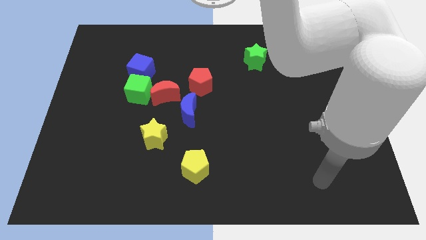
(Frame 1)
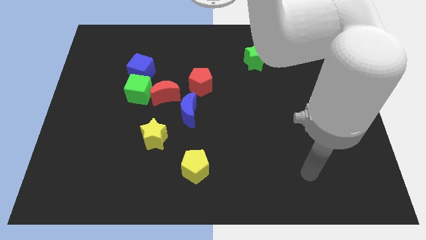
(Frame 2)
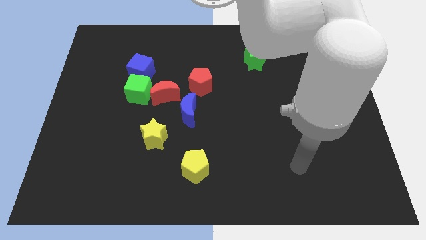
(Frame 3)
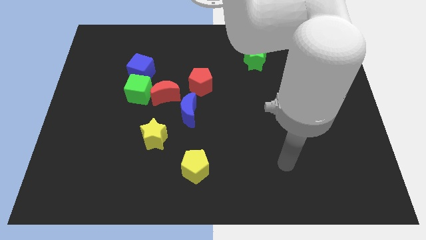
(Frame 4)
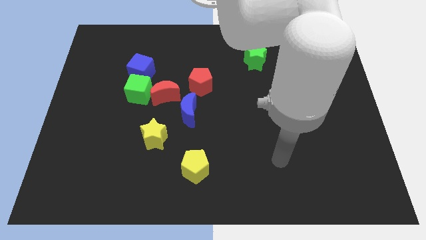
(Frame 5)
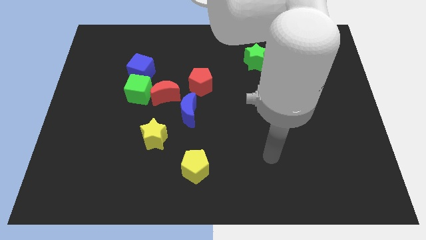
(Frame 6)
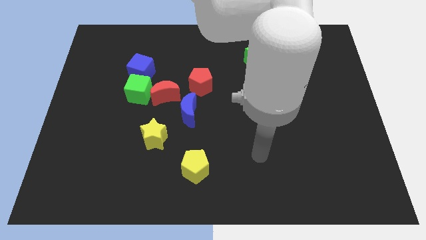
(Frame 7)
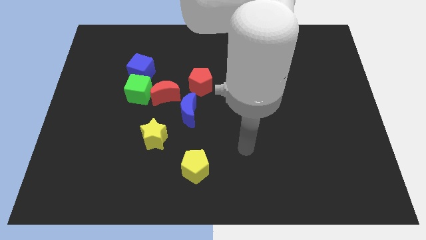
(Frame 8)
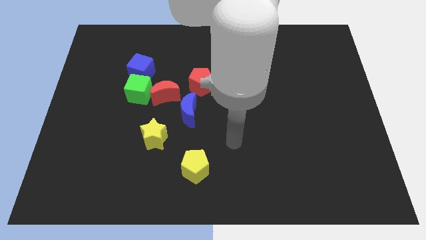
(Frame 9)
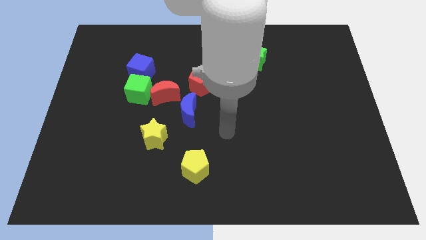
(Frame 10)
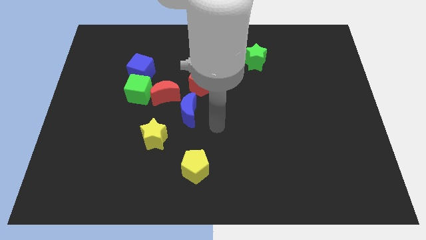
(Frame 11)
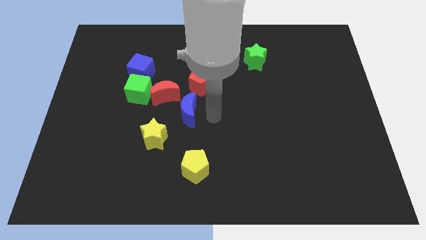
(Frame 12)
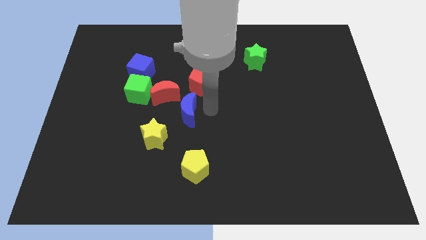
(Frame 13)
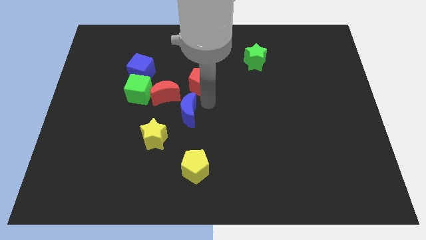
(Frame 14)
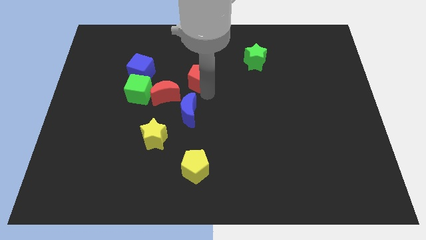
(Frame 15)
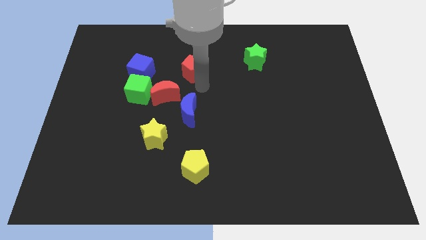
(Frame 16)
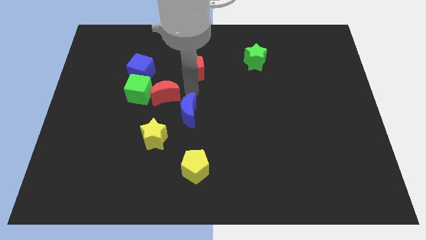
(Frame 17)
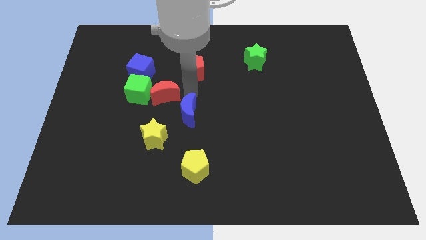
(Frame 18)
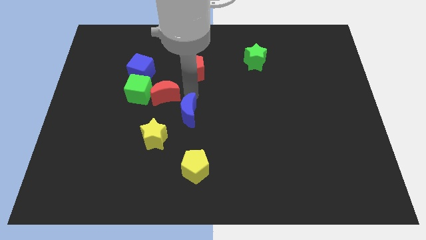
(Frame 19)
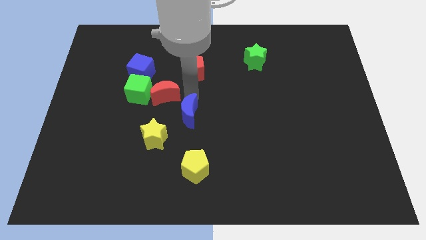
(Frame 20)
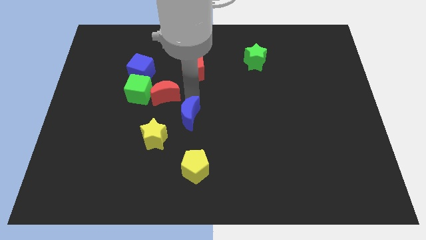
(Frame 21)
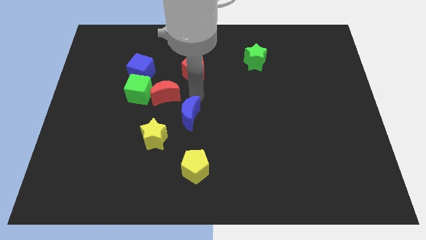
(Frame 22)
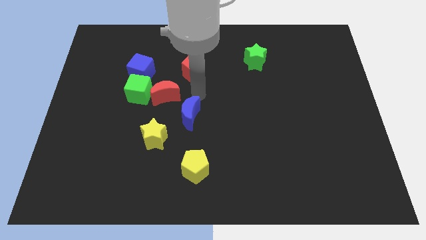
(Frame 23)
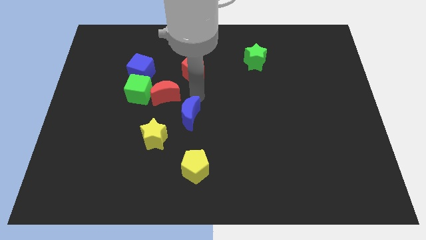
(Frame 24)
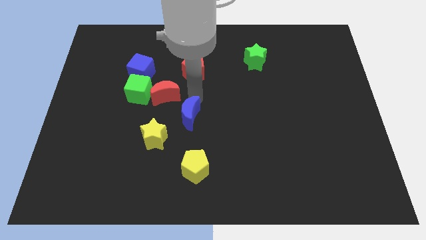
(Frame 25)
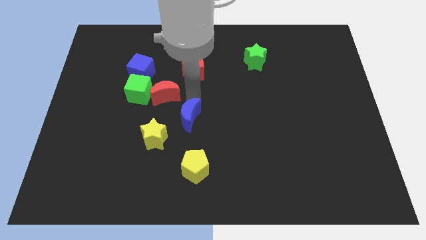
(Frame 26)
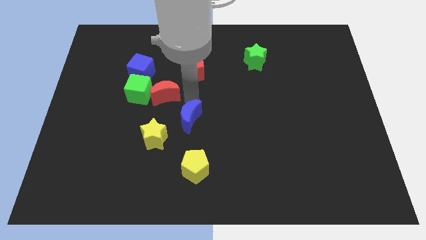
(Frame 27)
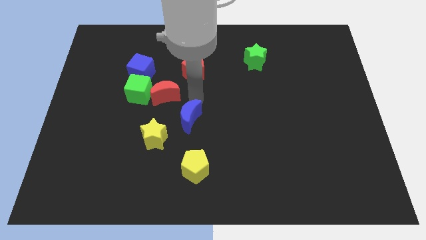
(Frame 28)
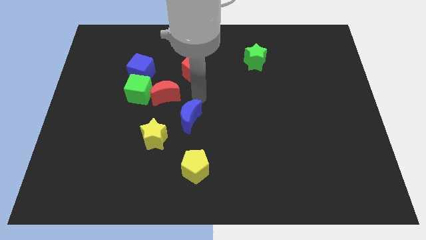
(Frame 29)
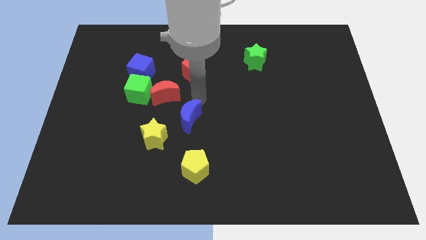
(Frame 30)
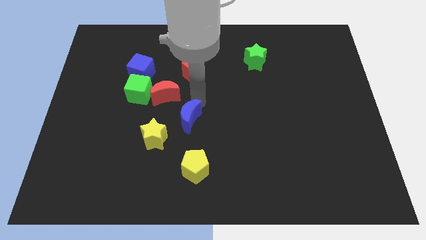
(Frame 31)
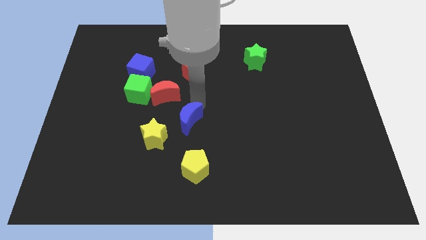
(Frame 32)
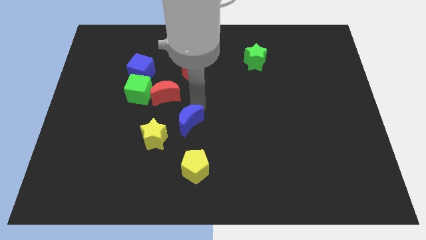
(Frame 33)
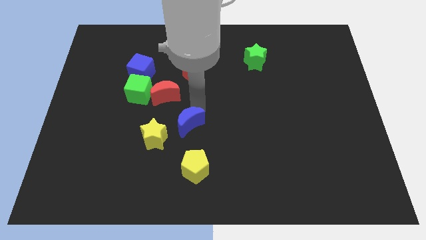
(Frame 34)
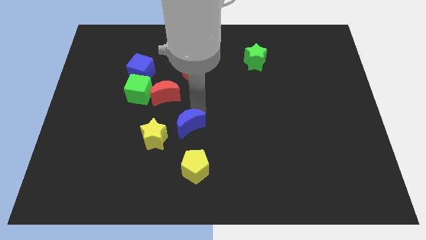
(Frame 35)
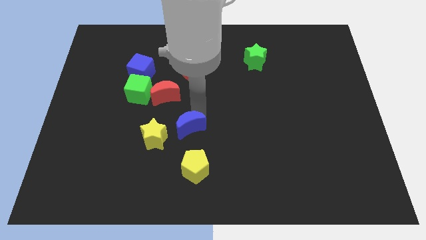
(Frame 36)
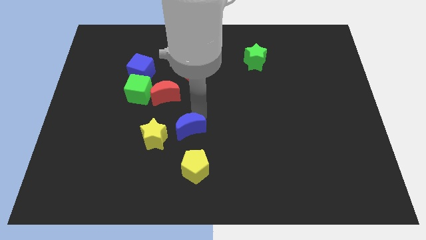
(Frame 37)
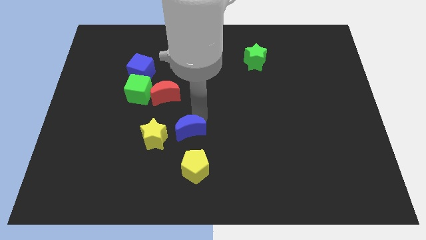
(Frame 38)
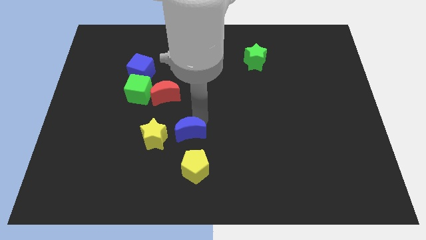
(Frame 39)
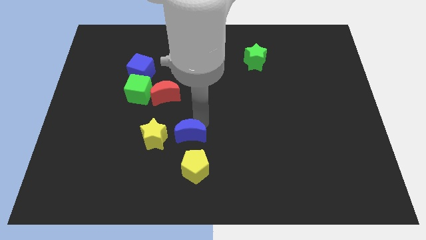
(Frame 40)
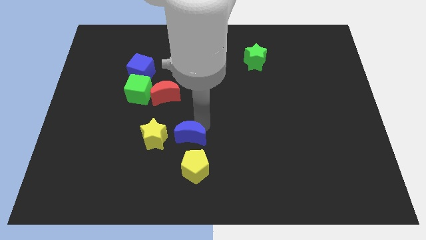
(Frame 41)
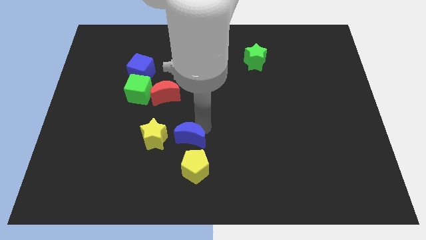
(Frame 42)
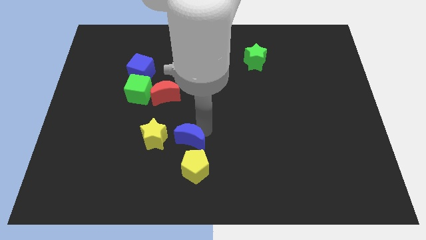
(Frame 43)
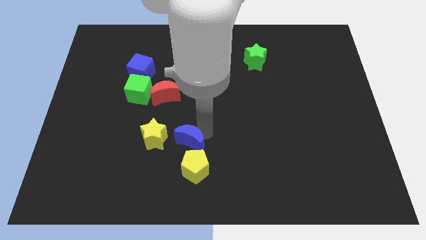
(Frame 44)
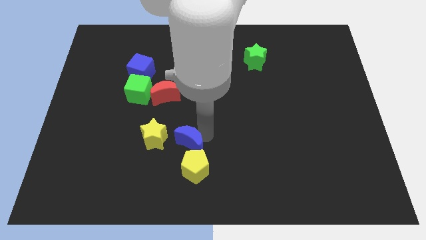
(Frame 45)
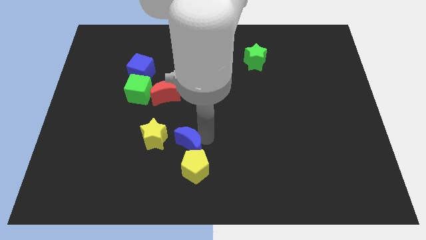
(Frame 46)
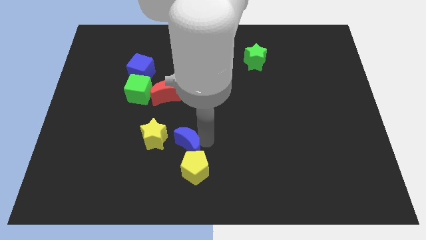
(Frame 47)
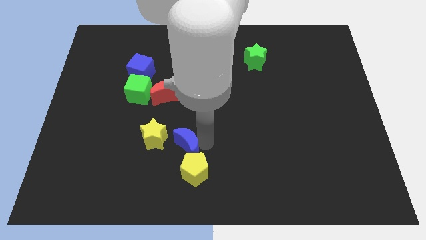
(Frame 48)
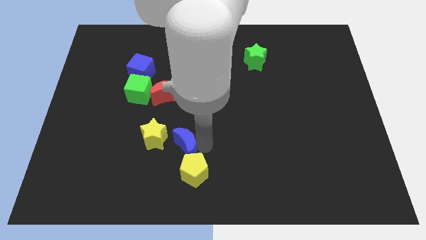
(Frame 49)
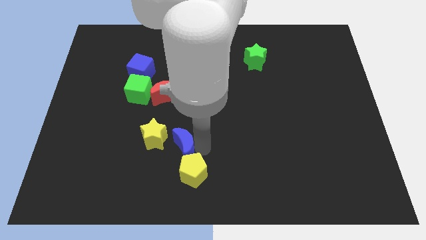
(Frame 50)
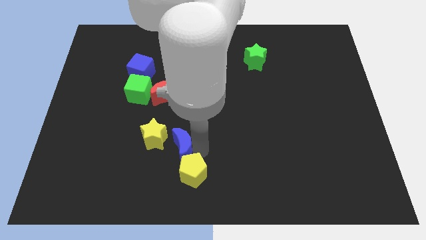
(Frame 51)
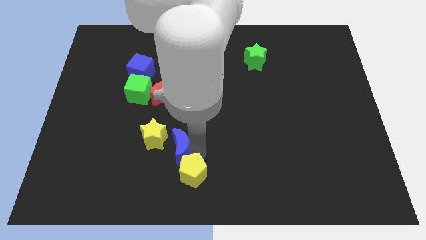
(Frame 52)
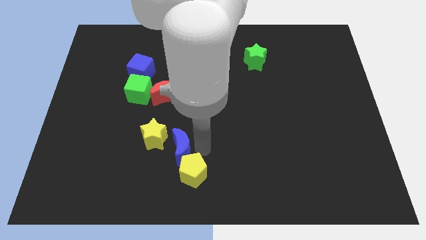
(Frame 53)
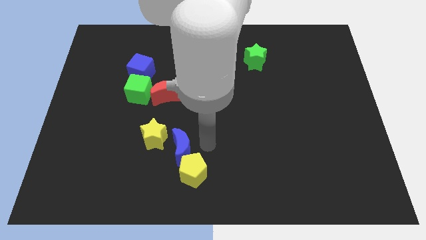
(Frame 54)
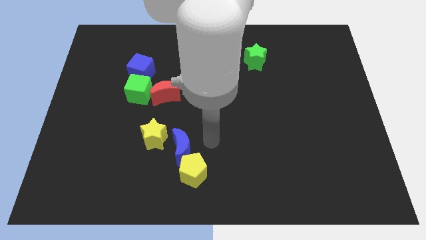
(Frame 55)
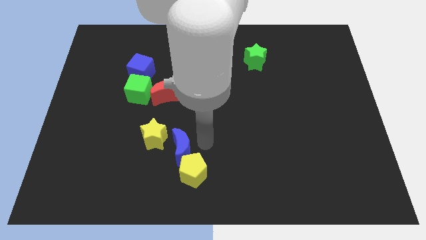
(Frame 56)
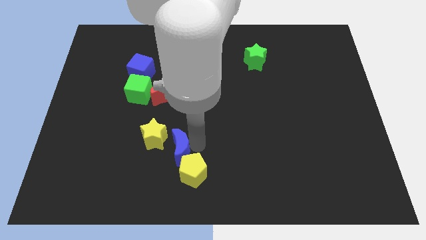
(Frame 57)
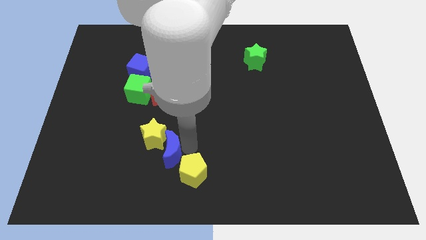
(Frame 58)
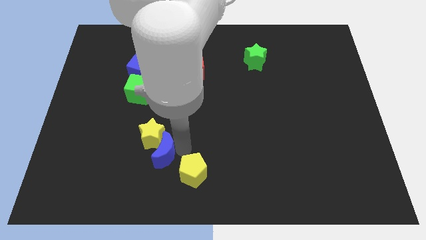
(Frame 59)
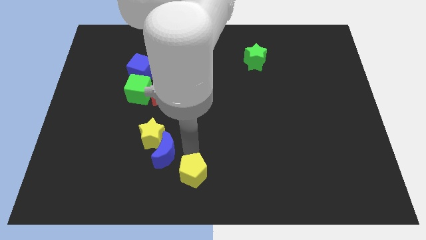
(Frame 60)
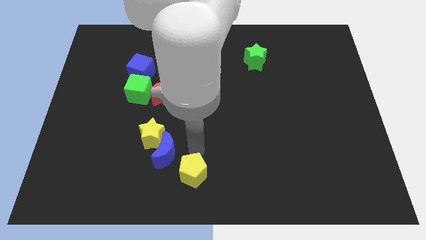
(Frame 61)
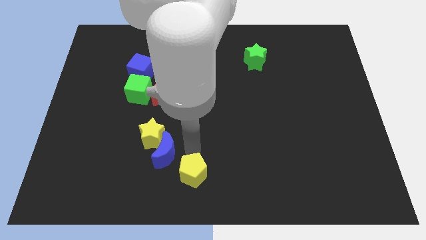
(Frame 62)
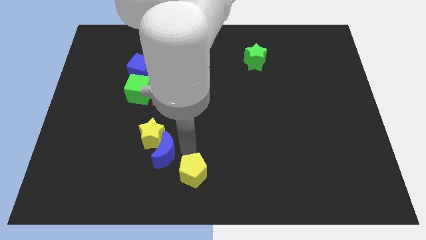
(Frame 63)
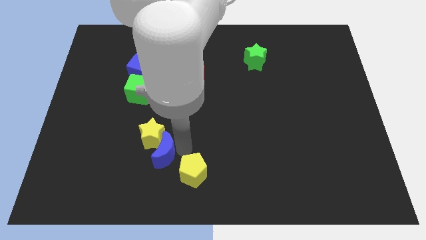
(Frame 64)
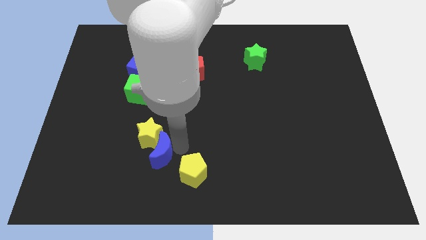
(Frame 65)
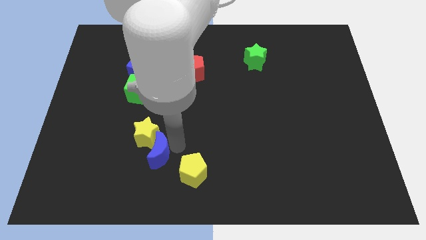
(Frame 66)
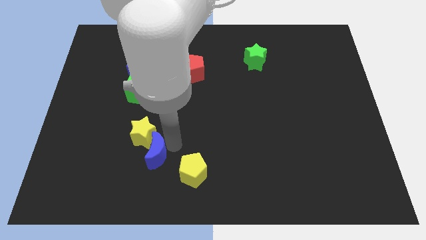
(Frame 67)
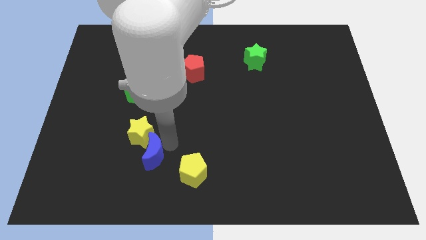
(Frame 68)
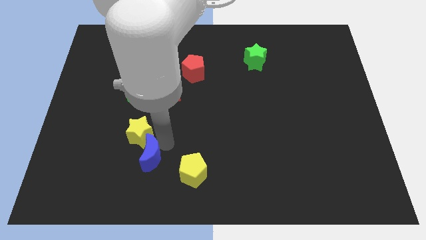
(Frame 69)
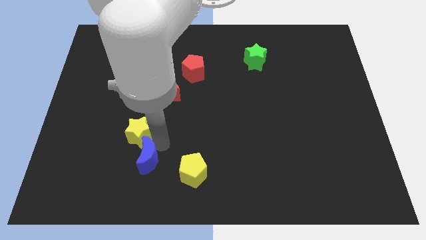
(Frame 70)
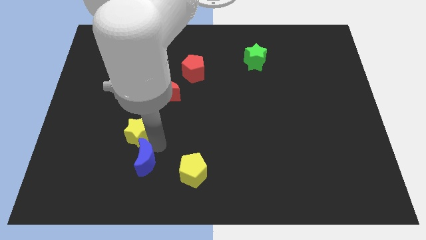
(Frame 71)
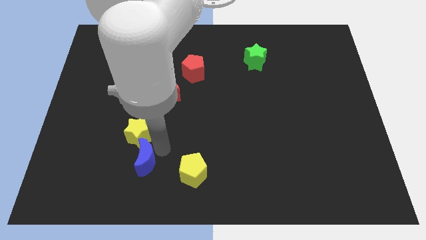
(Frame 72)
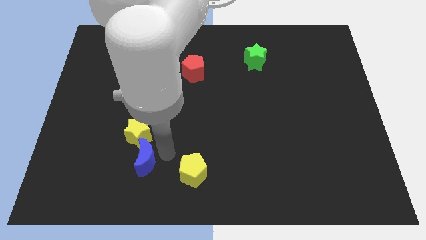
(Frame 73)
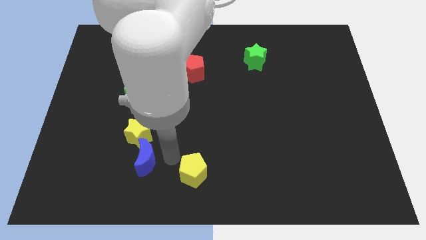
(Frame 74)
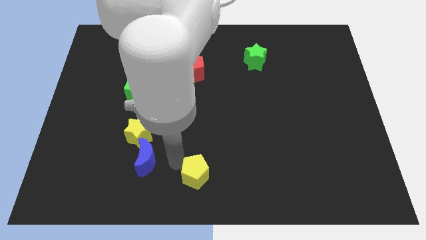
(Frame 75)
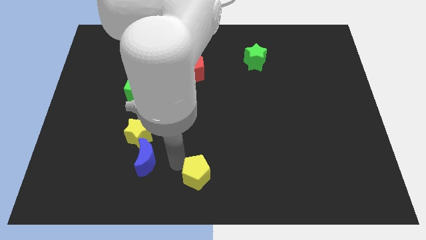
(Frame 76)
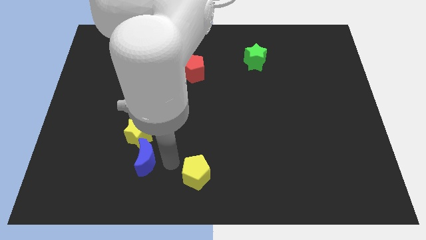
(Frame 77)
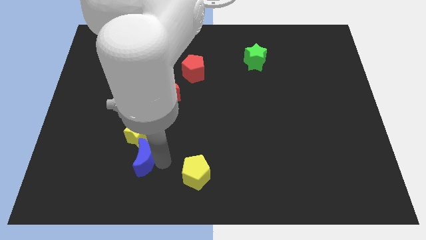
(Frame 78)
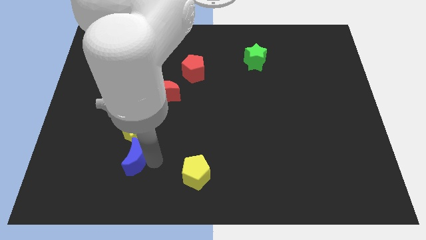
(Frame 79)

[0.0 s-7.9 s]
push the blue moon to the bottom left side of the yellow star
